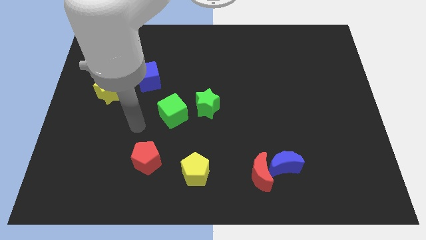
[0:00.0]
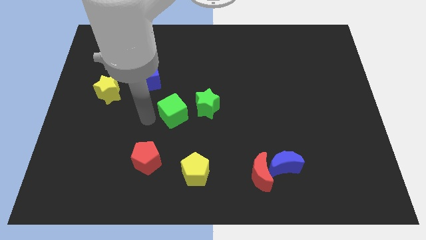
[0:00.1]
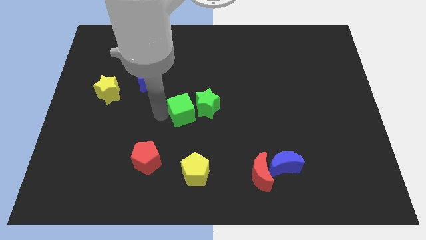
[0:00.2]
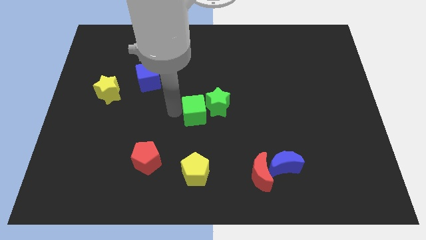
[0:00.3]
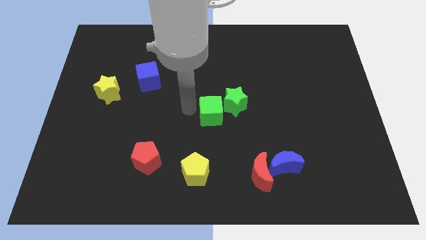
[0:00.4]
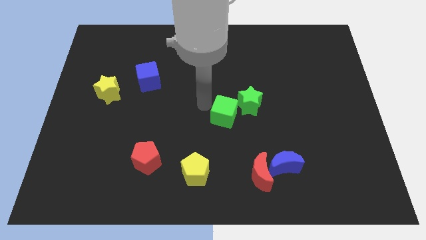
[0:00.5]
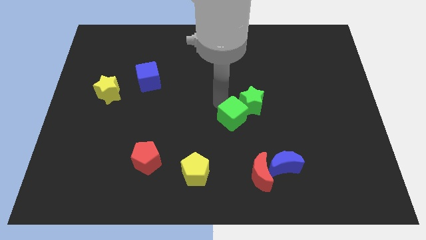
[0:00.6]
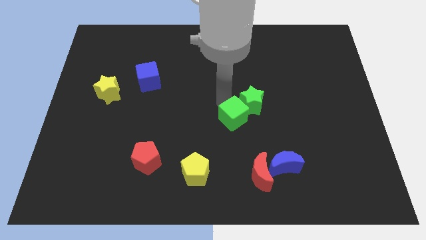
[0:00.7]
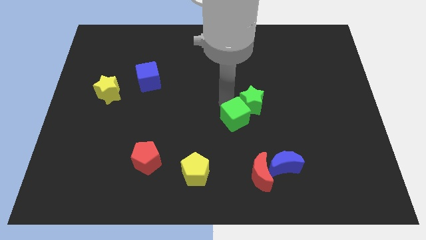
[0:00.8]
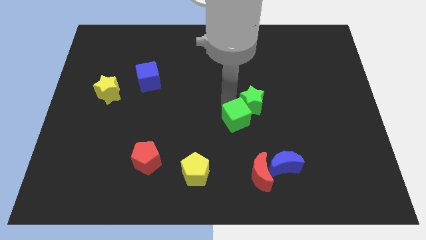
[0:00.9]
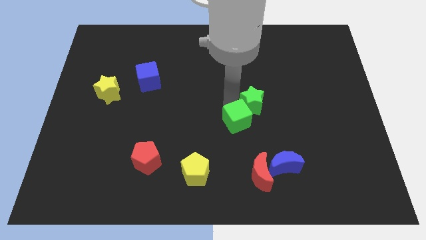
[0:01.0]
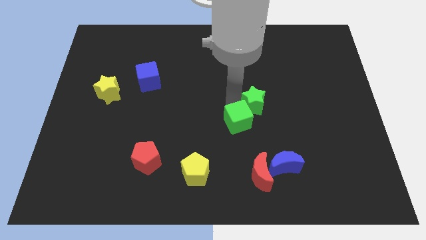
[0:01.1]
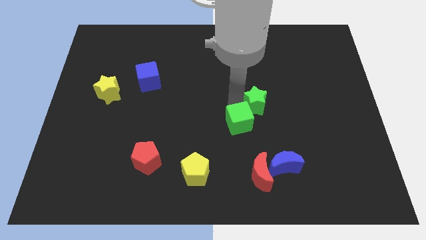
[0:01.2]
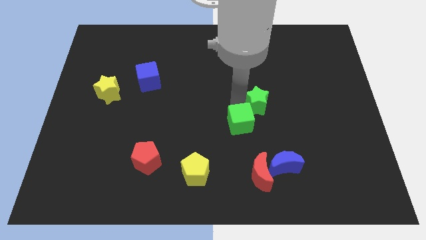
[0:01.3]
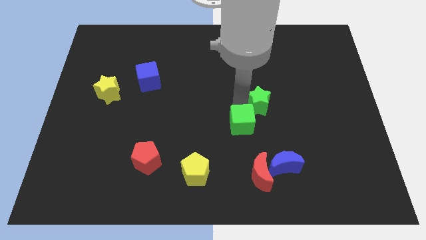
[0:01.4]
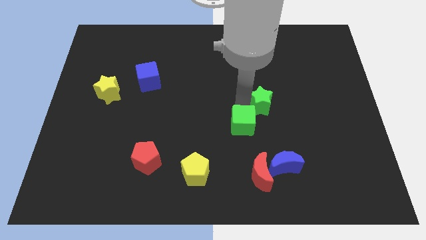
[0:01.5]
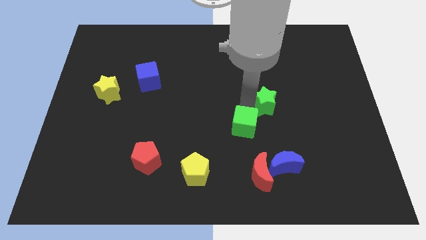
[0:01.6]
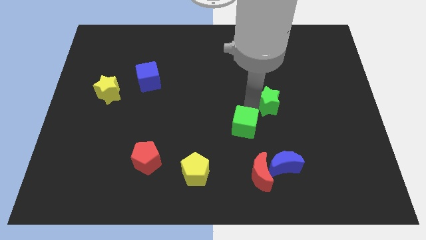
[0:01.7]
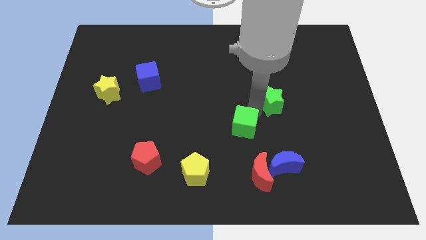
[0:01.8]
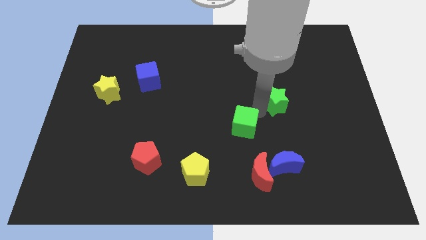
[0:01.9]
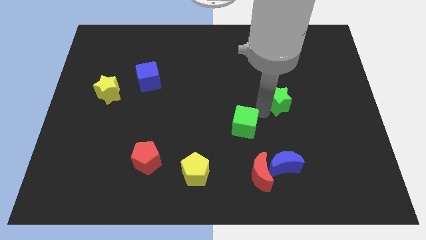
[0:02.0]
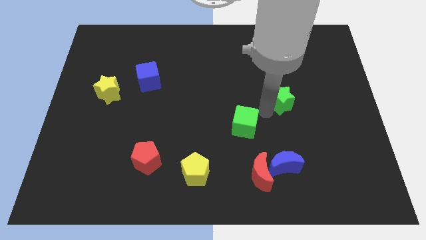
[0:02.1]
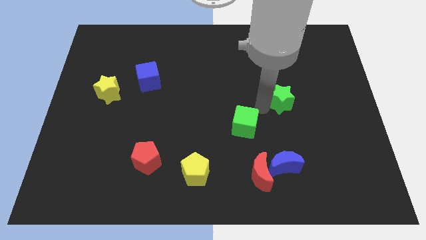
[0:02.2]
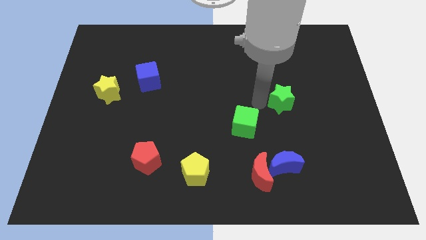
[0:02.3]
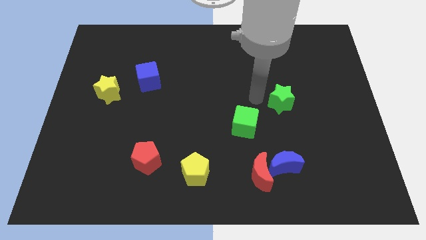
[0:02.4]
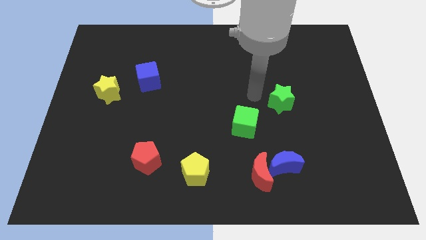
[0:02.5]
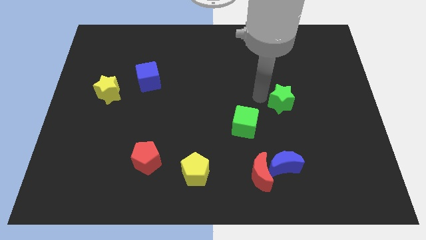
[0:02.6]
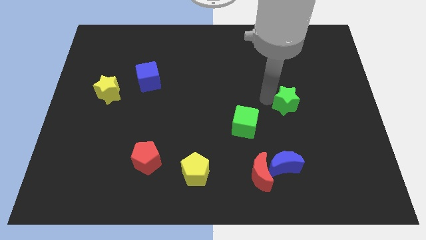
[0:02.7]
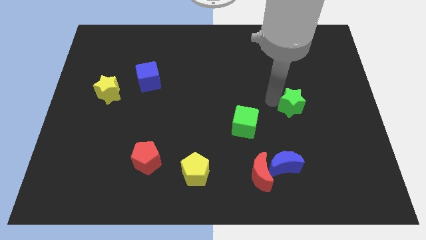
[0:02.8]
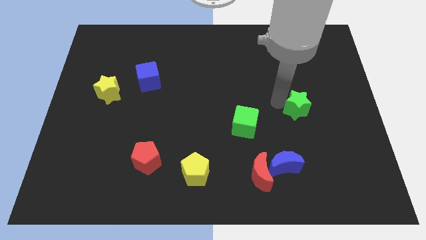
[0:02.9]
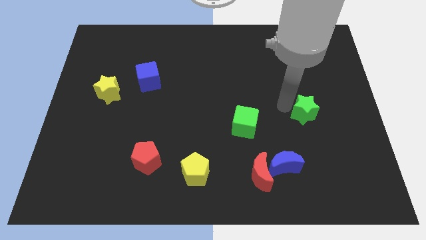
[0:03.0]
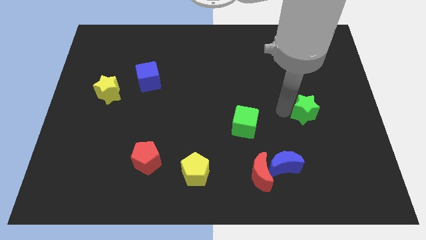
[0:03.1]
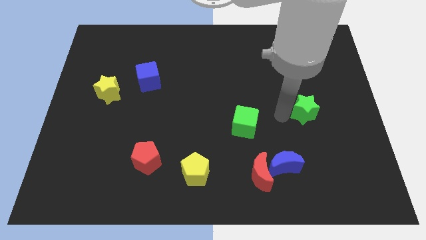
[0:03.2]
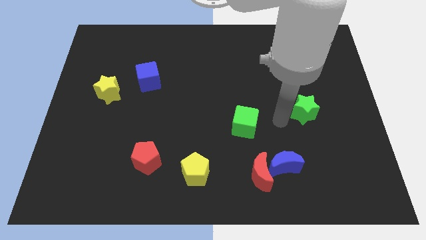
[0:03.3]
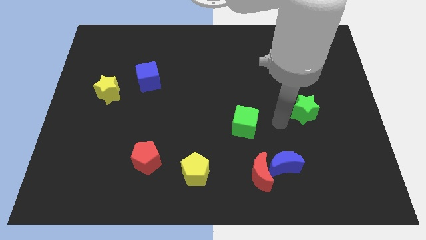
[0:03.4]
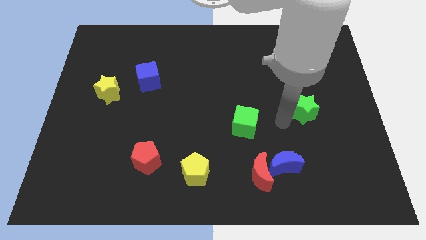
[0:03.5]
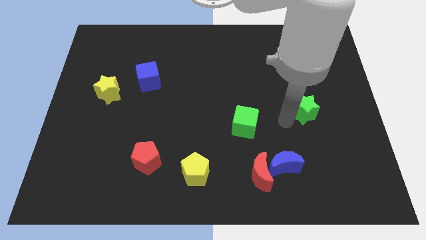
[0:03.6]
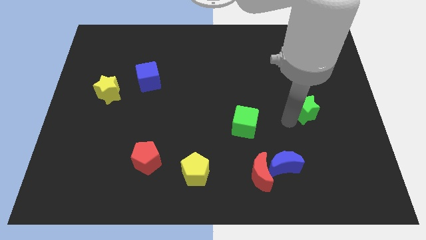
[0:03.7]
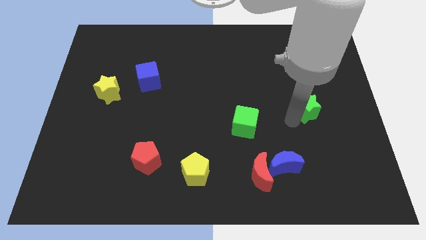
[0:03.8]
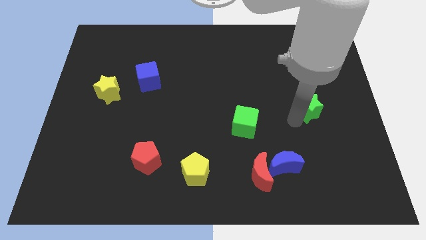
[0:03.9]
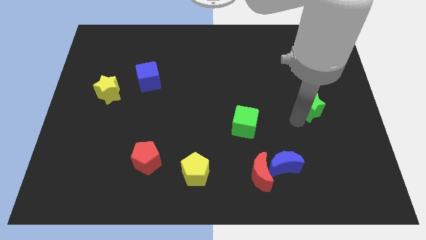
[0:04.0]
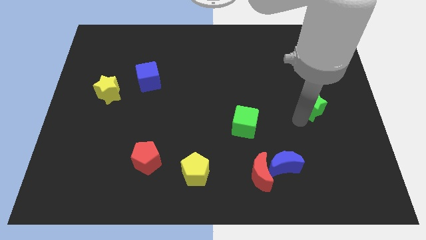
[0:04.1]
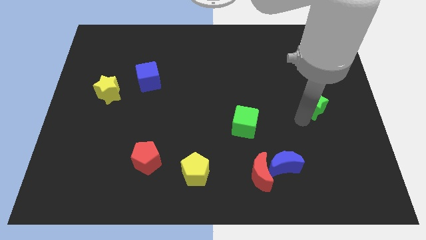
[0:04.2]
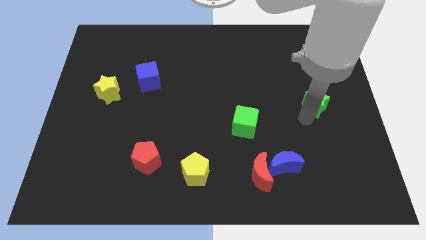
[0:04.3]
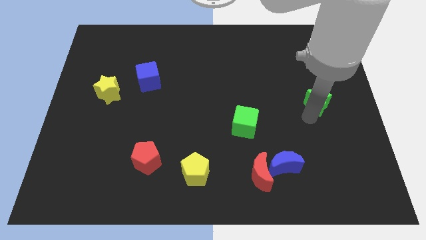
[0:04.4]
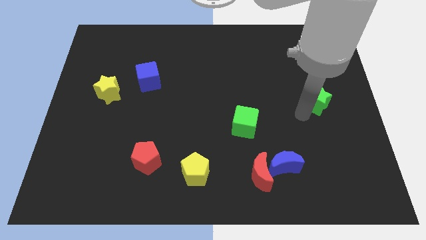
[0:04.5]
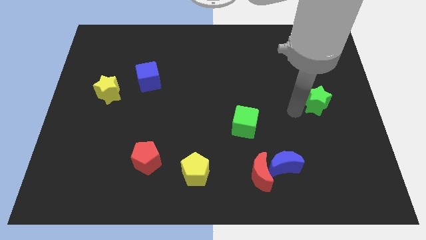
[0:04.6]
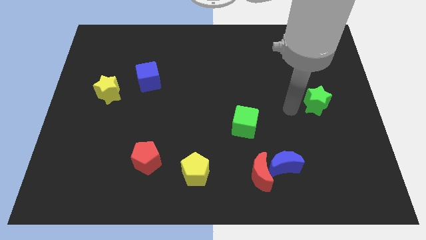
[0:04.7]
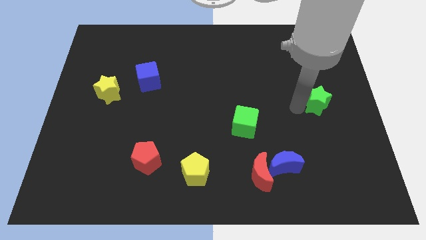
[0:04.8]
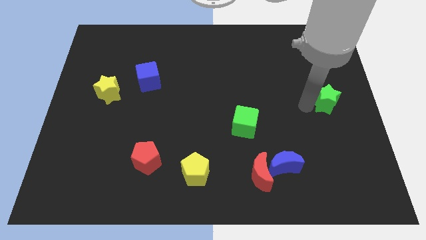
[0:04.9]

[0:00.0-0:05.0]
move the green star to the center right

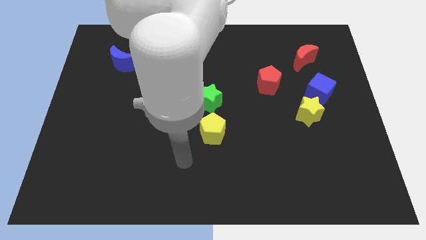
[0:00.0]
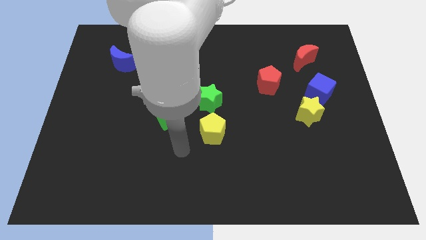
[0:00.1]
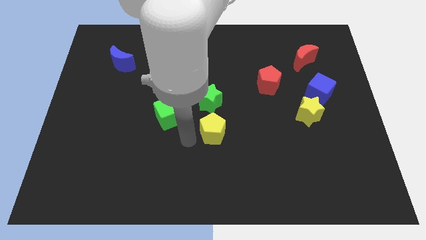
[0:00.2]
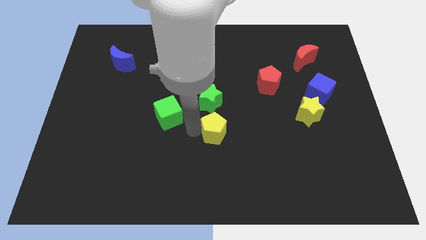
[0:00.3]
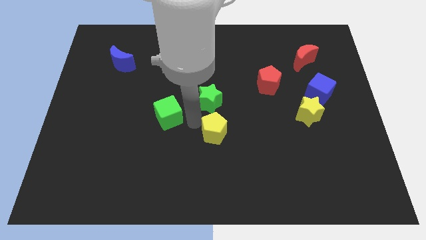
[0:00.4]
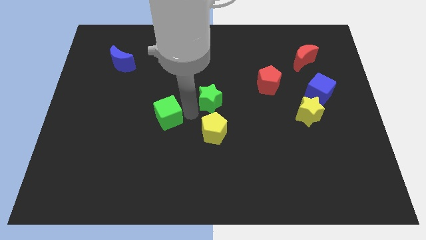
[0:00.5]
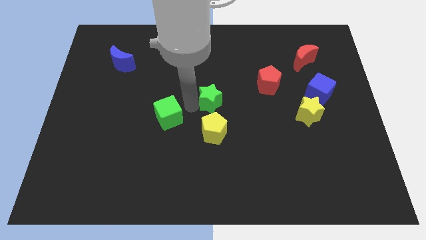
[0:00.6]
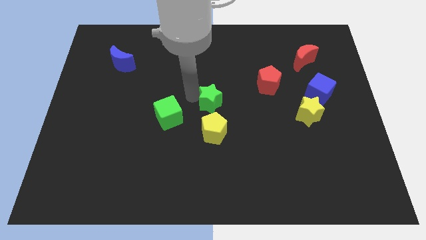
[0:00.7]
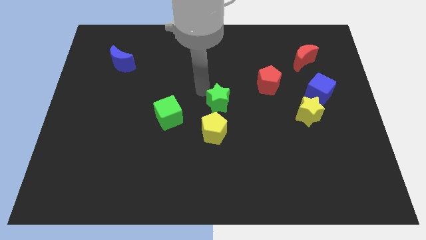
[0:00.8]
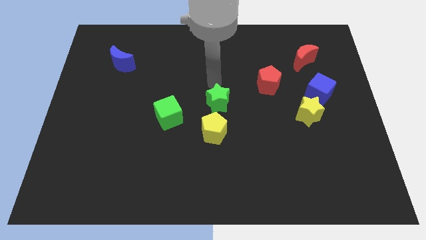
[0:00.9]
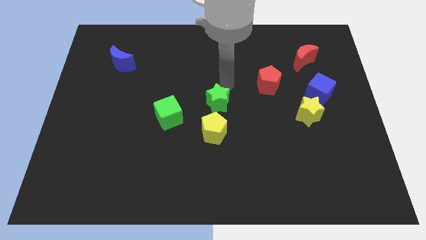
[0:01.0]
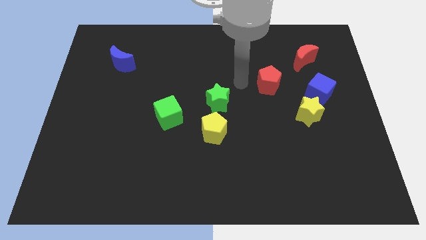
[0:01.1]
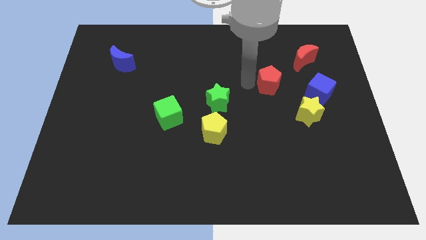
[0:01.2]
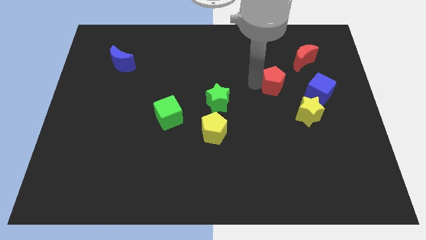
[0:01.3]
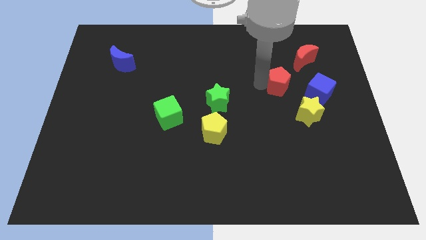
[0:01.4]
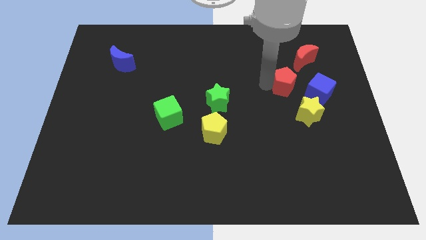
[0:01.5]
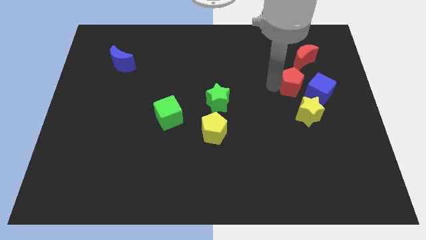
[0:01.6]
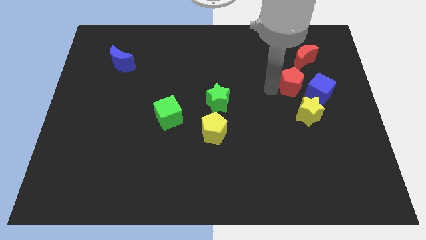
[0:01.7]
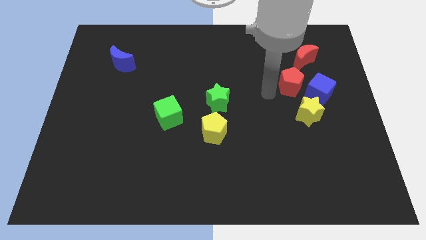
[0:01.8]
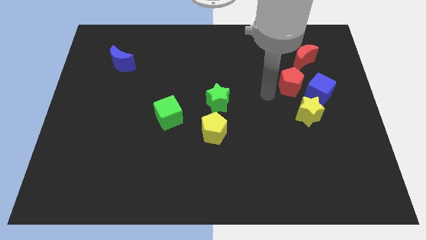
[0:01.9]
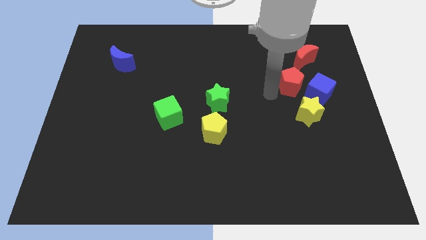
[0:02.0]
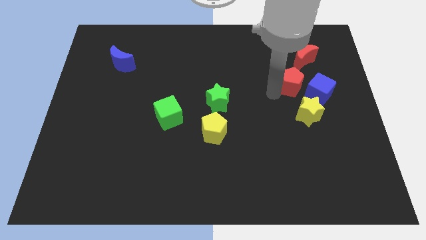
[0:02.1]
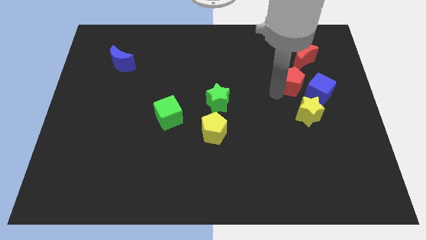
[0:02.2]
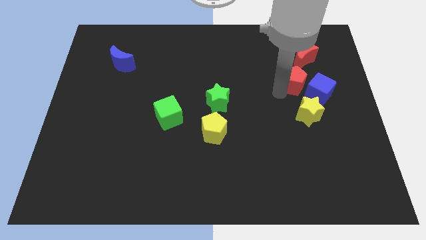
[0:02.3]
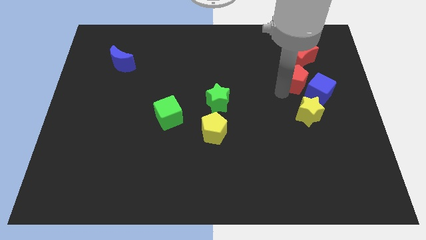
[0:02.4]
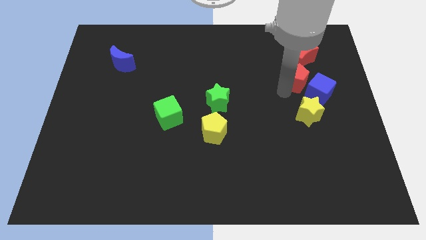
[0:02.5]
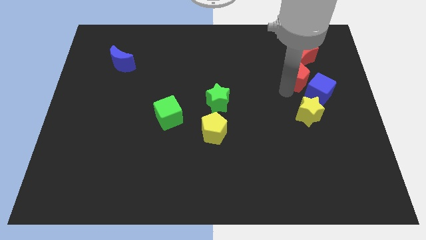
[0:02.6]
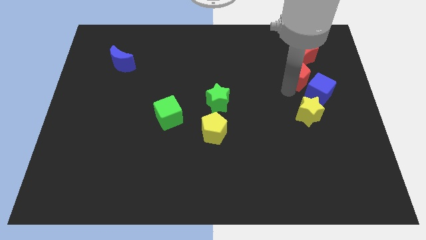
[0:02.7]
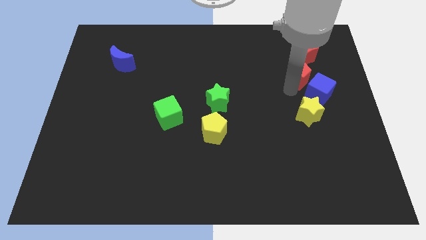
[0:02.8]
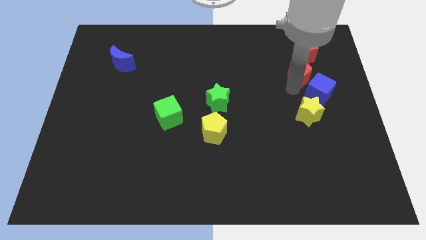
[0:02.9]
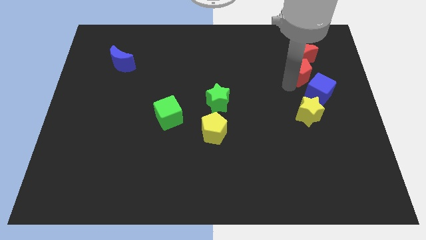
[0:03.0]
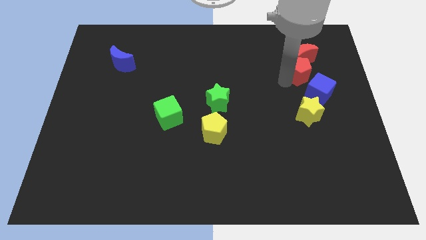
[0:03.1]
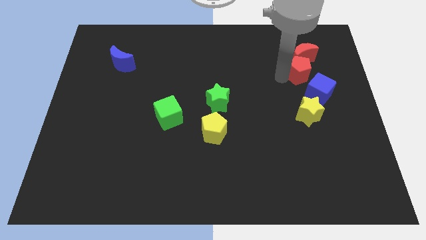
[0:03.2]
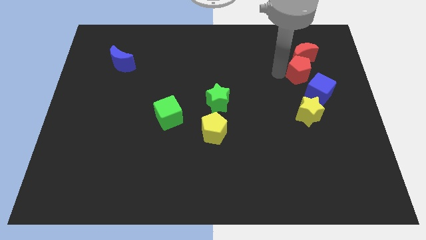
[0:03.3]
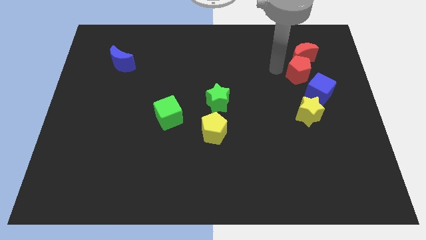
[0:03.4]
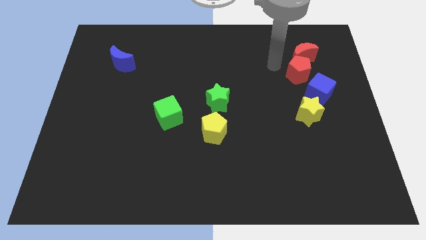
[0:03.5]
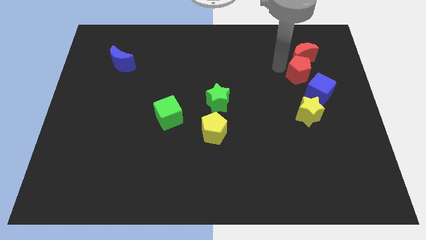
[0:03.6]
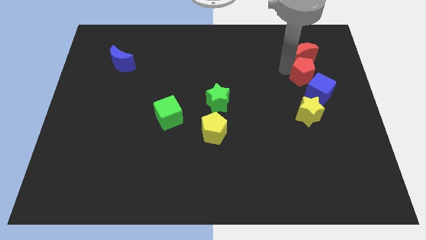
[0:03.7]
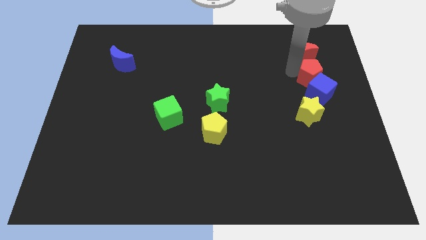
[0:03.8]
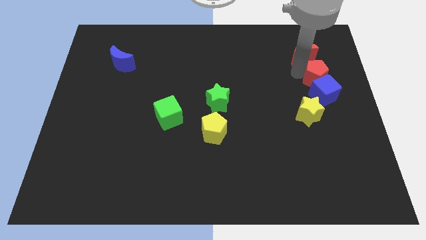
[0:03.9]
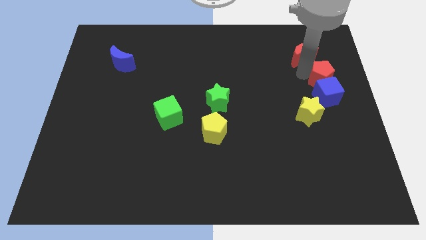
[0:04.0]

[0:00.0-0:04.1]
slide the red pentagon to the center right
